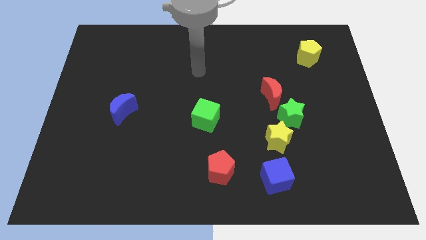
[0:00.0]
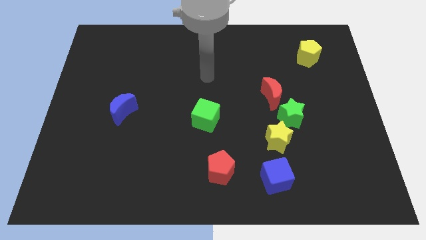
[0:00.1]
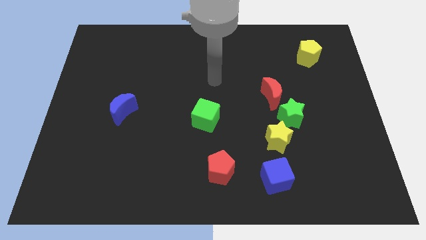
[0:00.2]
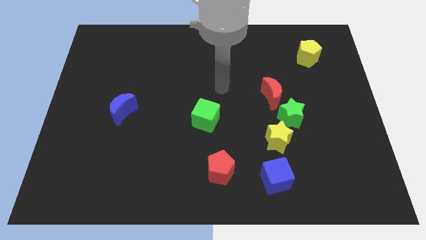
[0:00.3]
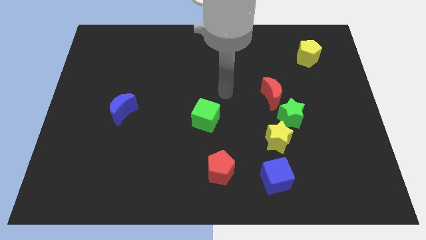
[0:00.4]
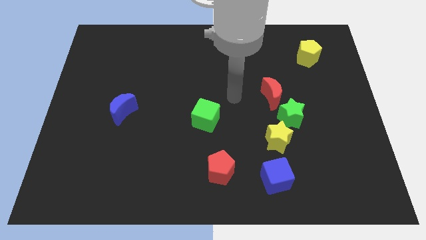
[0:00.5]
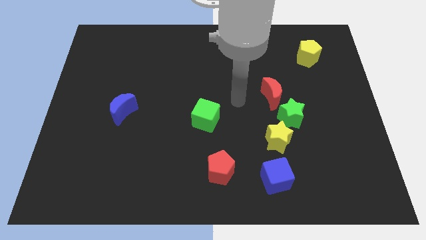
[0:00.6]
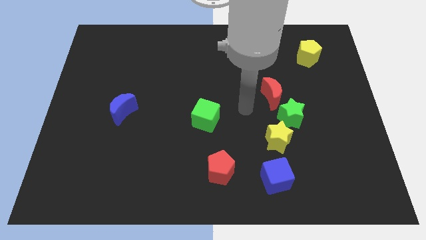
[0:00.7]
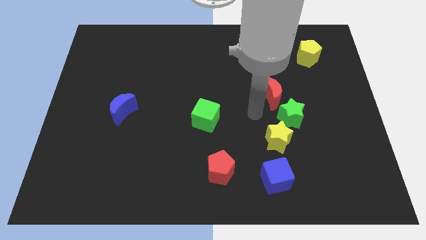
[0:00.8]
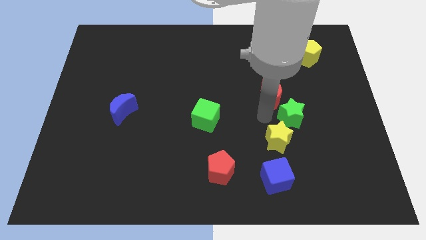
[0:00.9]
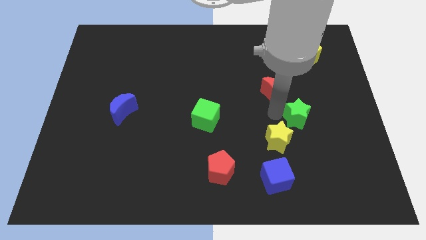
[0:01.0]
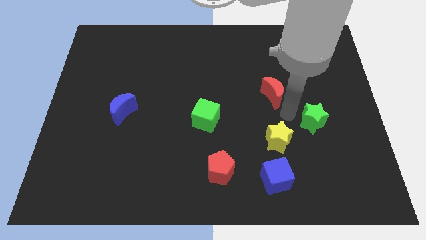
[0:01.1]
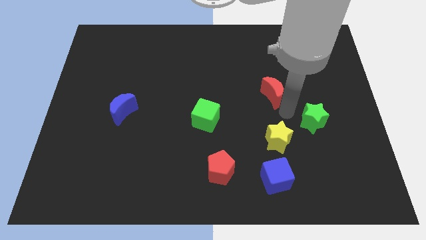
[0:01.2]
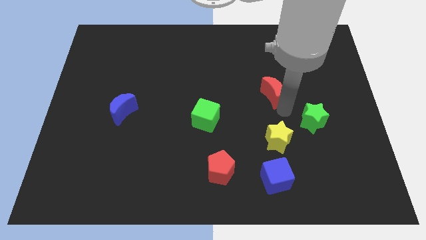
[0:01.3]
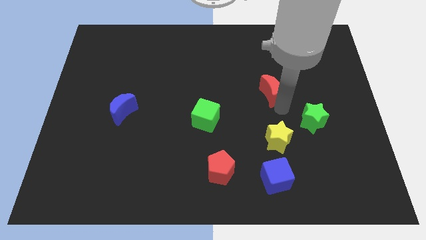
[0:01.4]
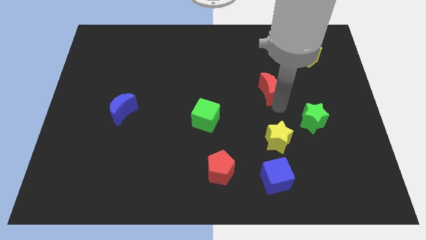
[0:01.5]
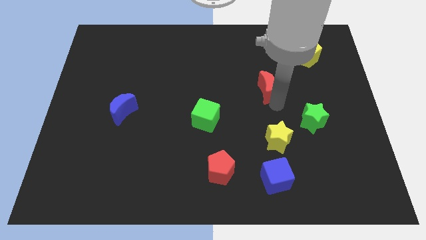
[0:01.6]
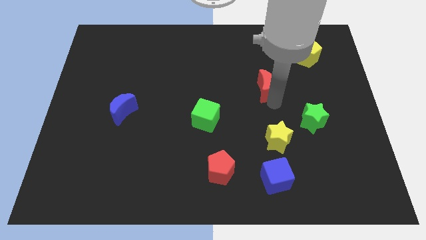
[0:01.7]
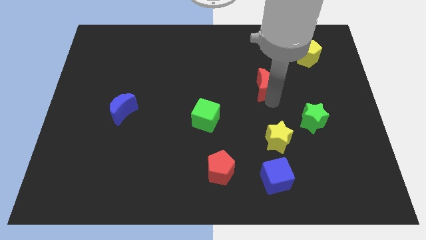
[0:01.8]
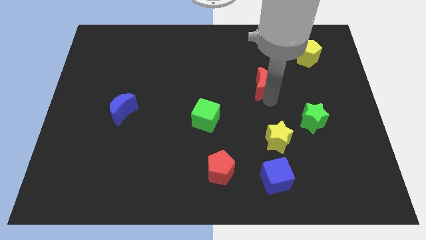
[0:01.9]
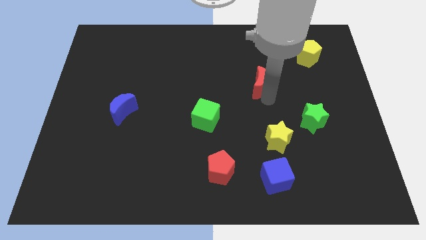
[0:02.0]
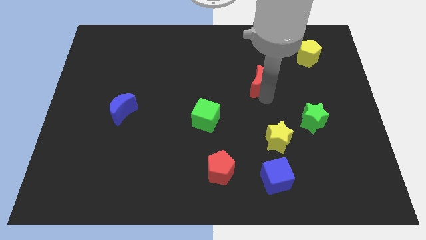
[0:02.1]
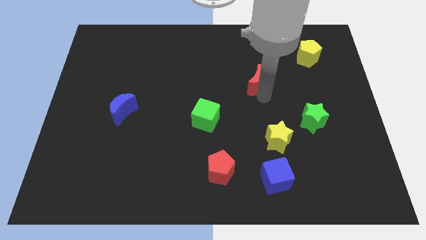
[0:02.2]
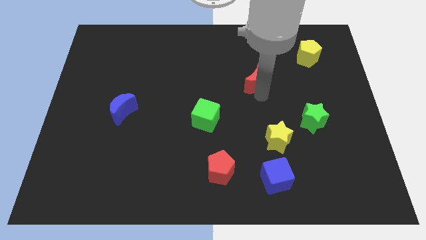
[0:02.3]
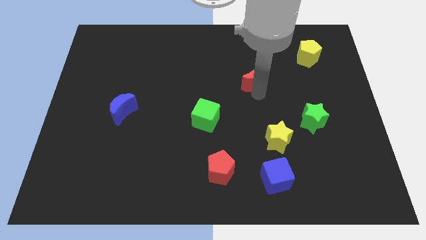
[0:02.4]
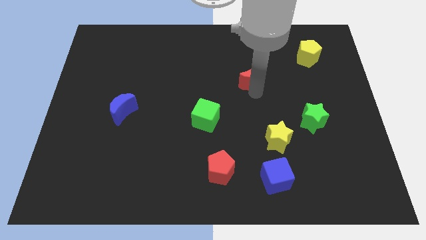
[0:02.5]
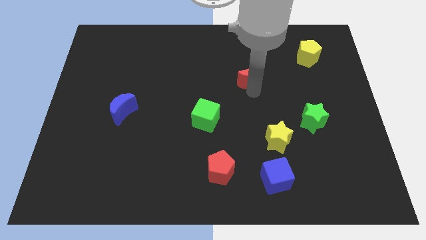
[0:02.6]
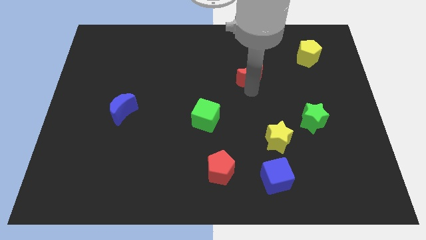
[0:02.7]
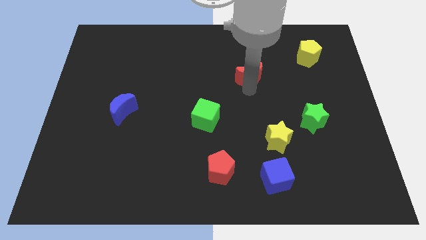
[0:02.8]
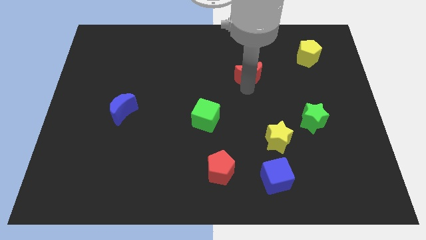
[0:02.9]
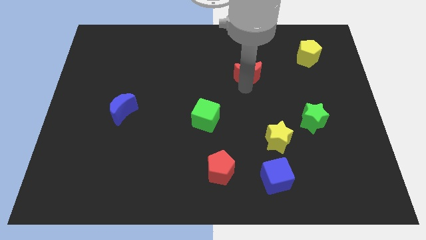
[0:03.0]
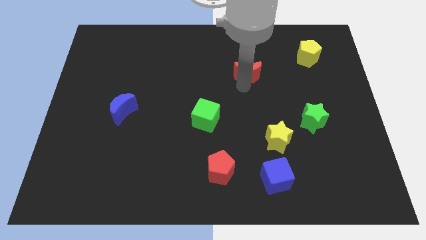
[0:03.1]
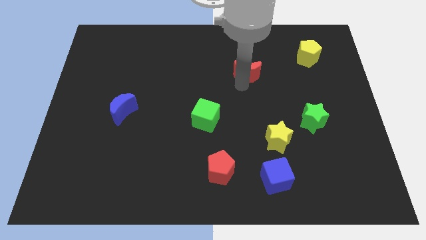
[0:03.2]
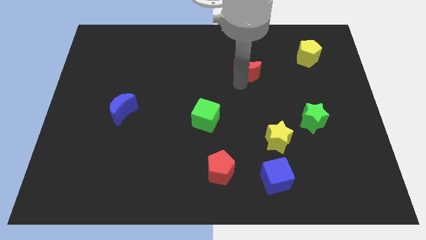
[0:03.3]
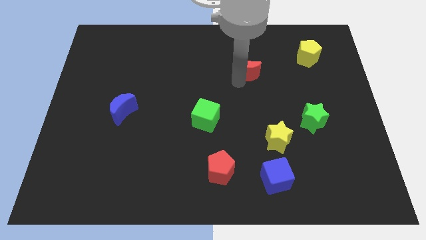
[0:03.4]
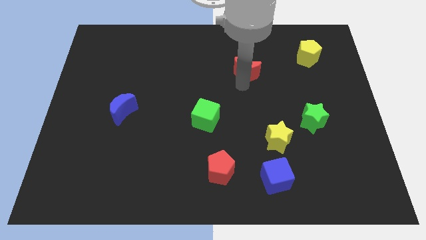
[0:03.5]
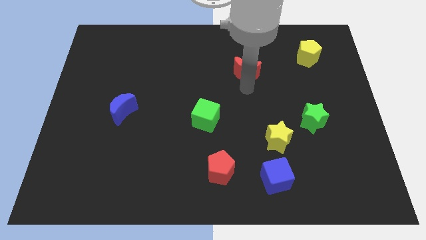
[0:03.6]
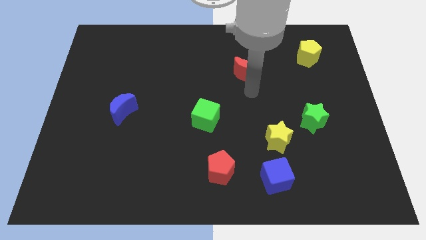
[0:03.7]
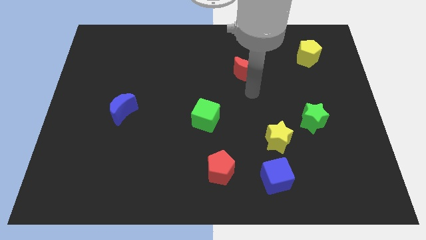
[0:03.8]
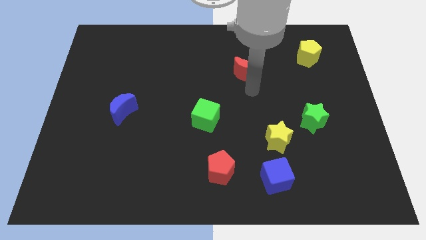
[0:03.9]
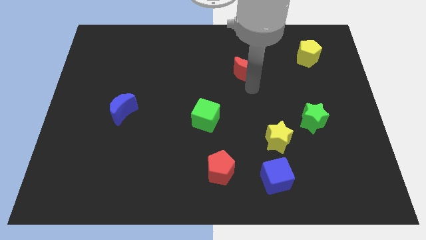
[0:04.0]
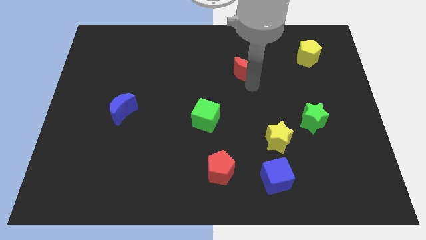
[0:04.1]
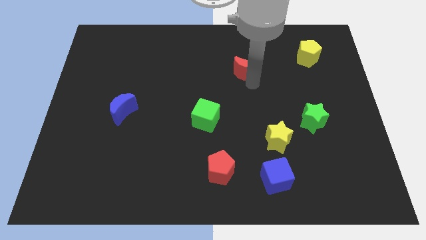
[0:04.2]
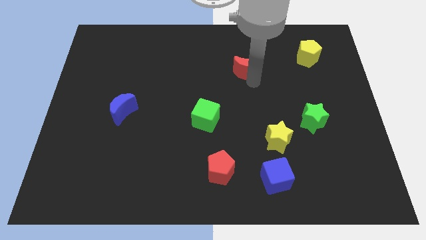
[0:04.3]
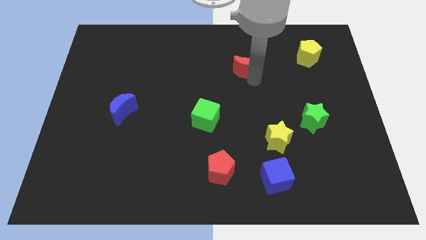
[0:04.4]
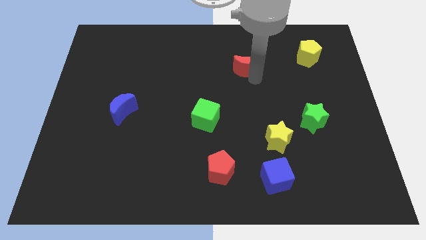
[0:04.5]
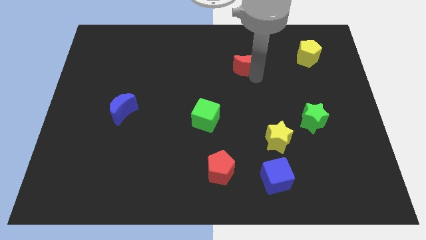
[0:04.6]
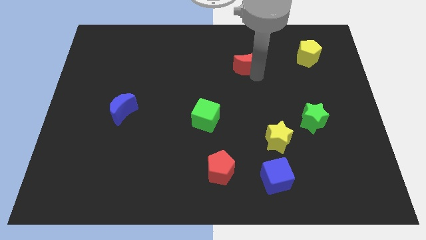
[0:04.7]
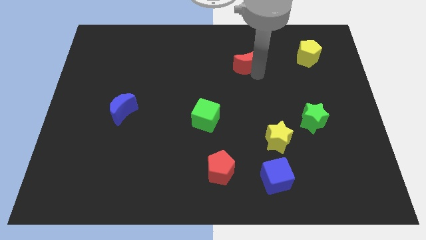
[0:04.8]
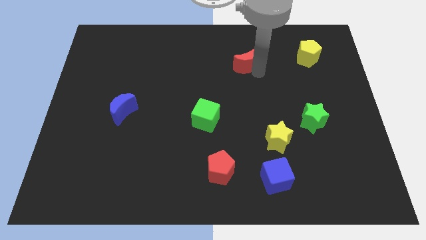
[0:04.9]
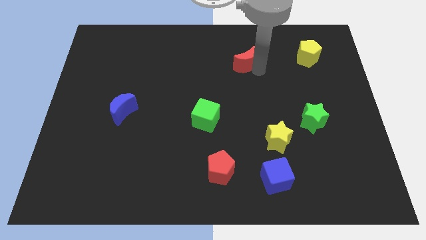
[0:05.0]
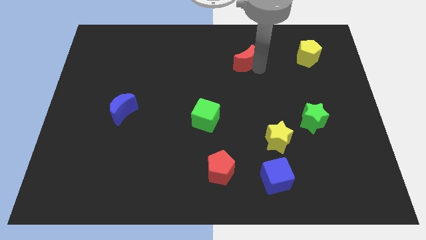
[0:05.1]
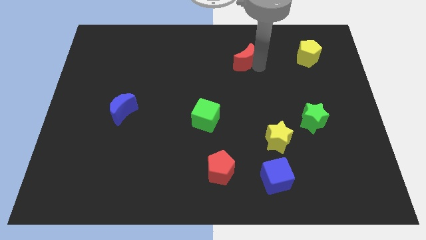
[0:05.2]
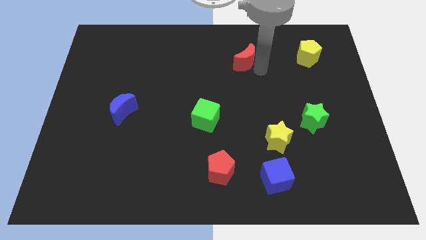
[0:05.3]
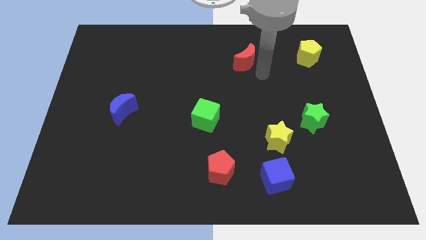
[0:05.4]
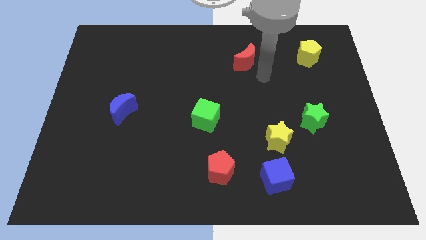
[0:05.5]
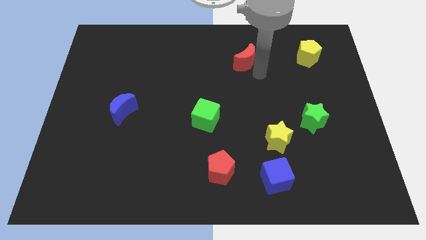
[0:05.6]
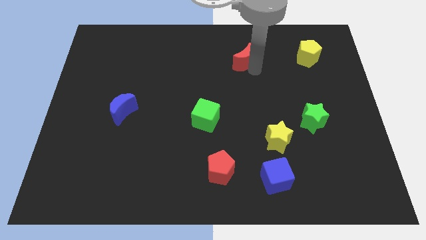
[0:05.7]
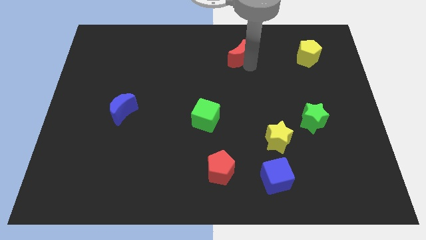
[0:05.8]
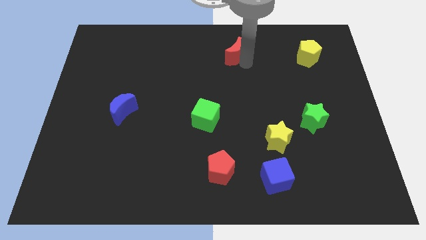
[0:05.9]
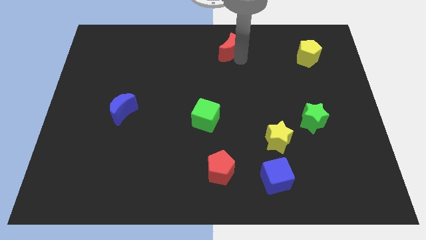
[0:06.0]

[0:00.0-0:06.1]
push the red moon to the top
